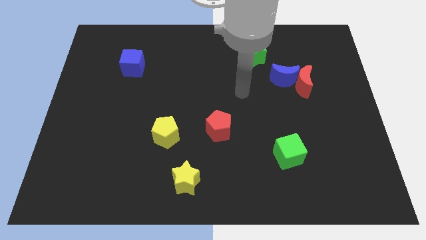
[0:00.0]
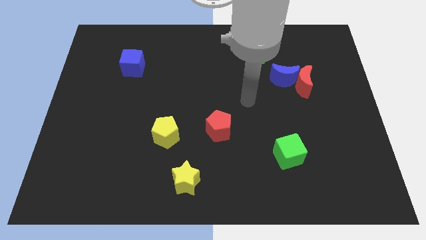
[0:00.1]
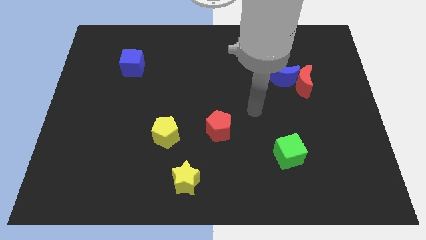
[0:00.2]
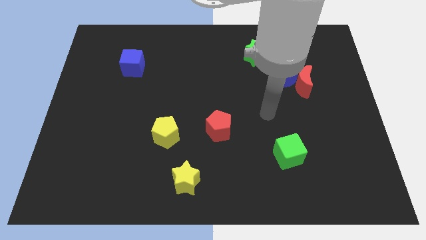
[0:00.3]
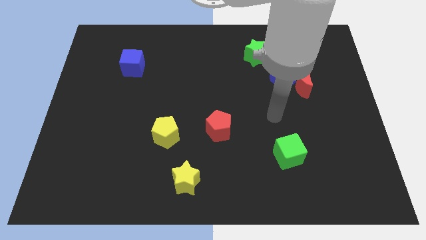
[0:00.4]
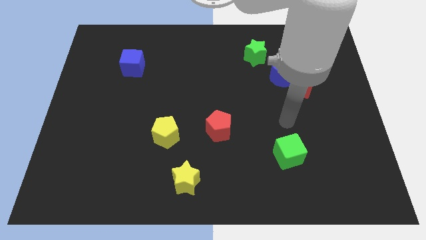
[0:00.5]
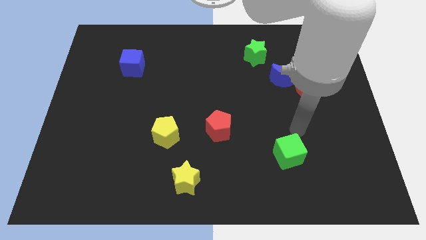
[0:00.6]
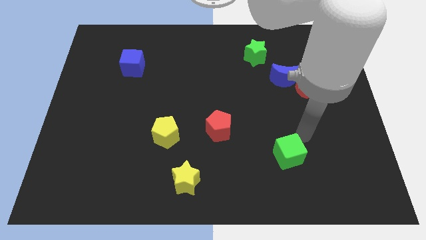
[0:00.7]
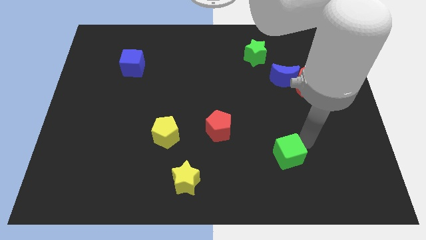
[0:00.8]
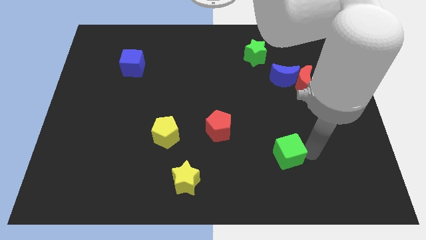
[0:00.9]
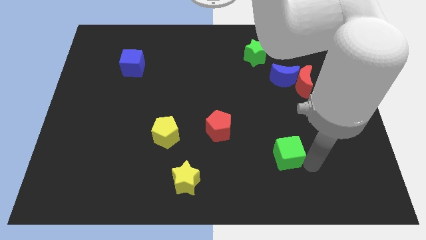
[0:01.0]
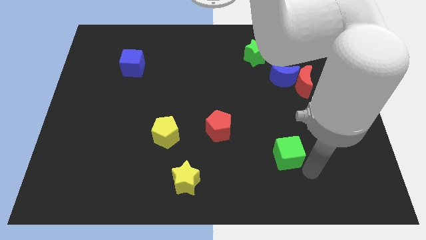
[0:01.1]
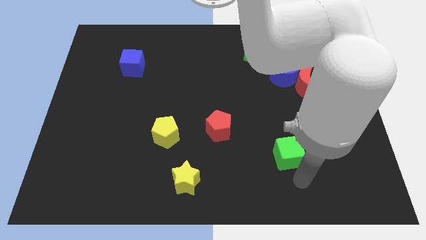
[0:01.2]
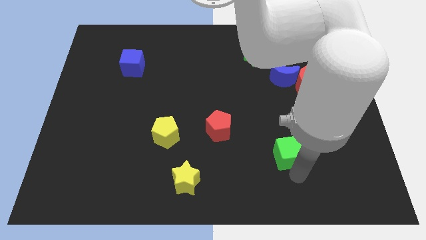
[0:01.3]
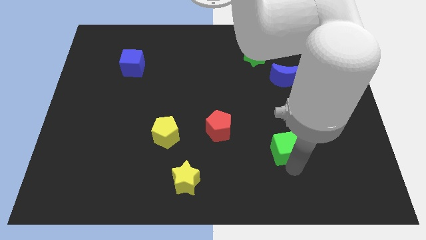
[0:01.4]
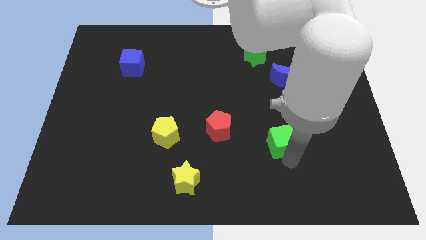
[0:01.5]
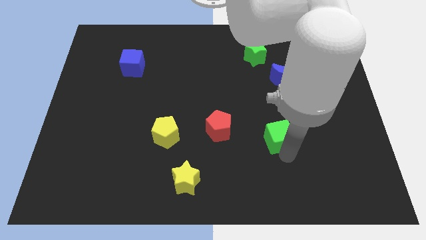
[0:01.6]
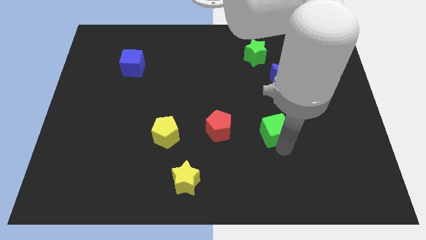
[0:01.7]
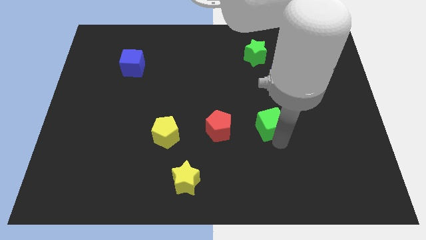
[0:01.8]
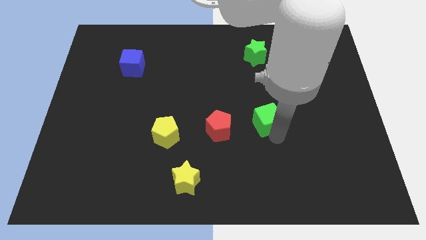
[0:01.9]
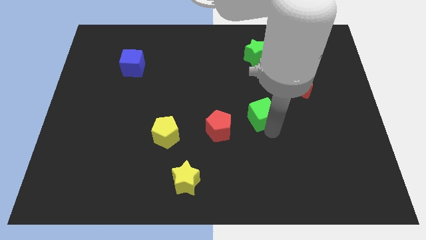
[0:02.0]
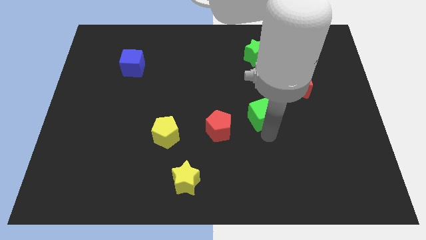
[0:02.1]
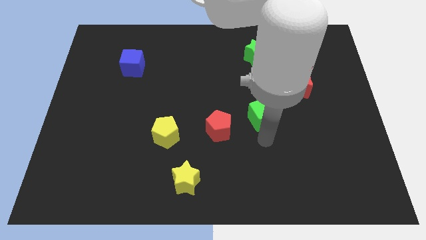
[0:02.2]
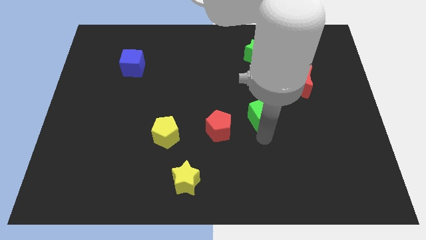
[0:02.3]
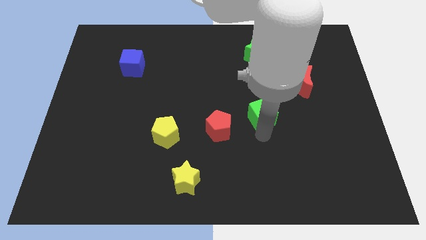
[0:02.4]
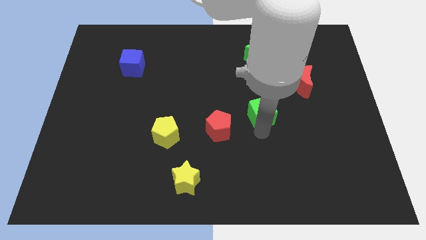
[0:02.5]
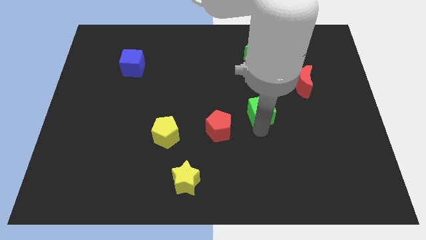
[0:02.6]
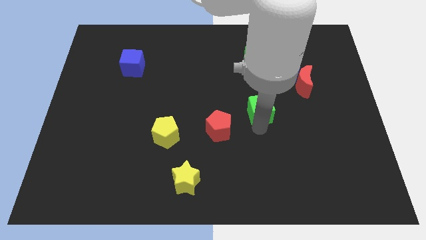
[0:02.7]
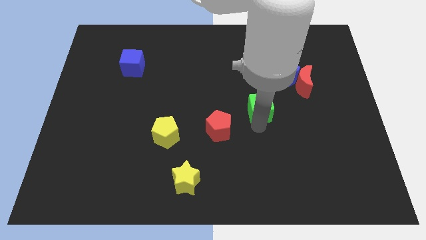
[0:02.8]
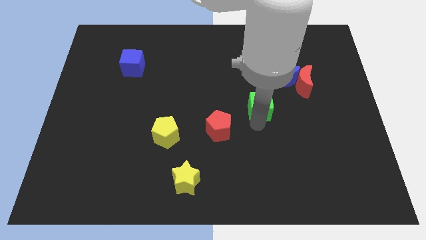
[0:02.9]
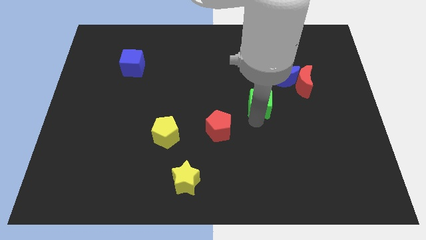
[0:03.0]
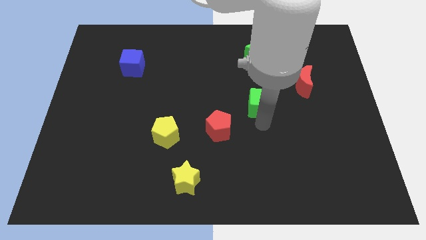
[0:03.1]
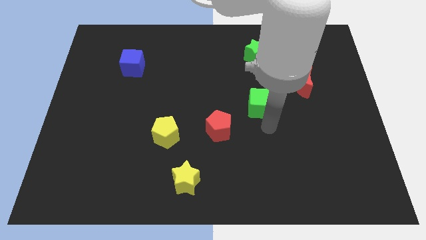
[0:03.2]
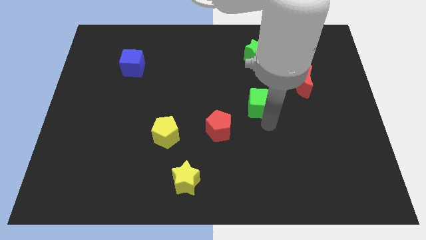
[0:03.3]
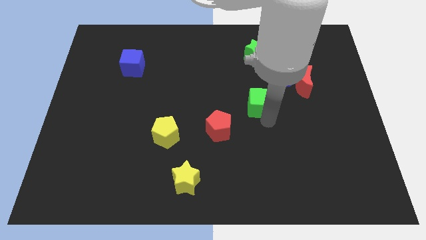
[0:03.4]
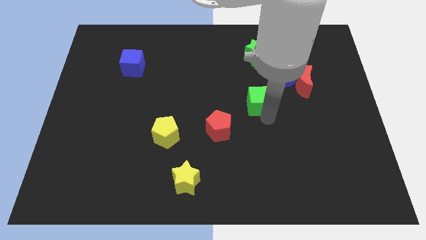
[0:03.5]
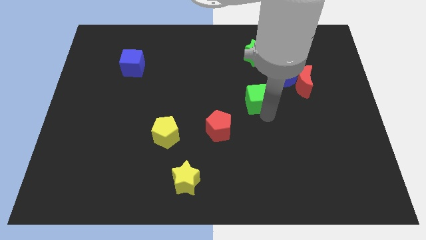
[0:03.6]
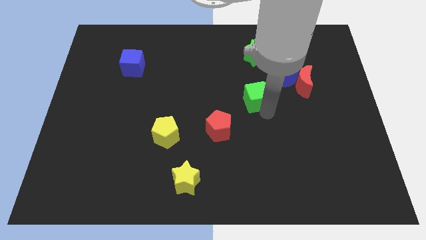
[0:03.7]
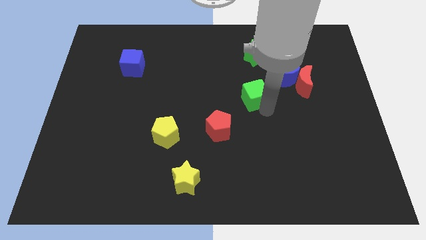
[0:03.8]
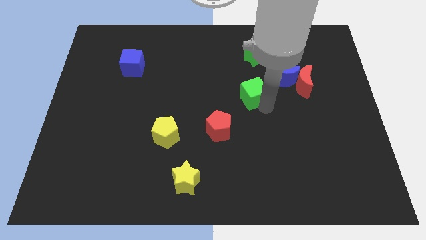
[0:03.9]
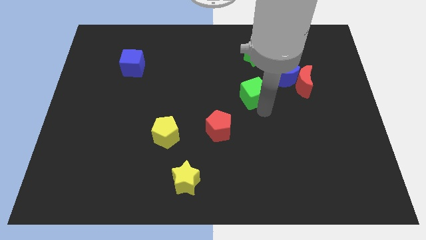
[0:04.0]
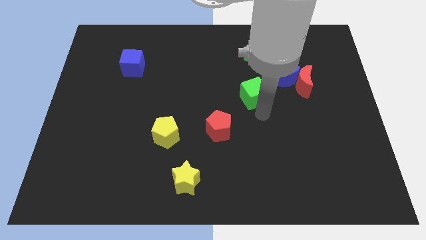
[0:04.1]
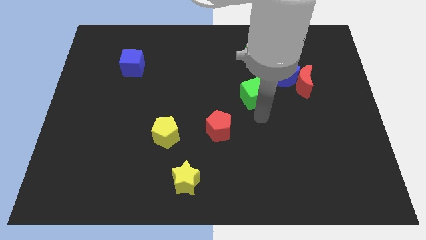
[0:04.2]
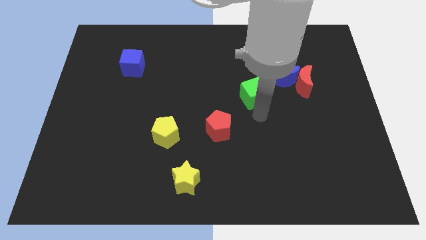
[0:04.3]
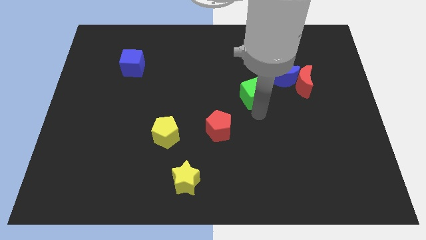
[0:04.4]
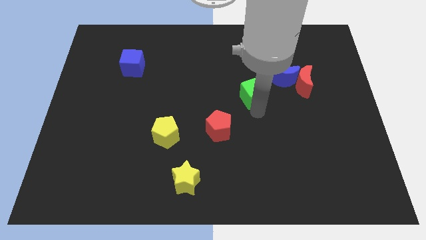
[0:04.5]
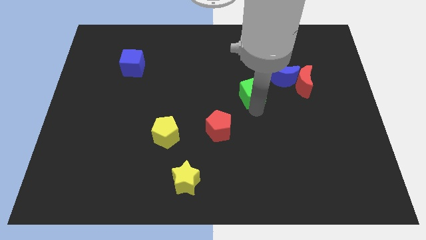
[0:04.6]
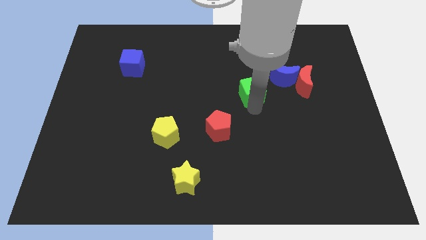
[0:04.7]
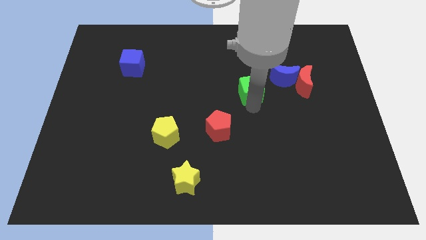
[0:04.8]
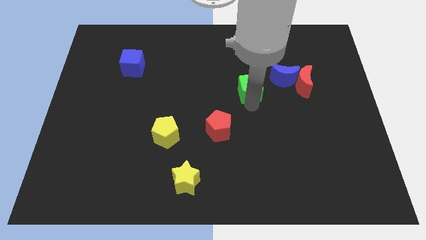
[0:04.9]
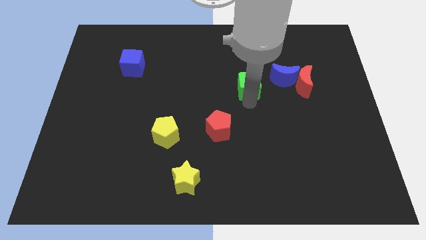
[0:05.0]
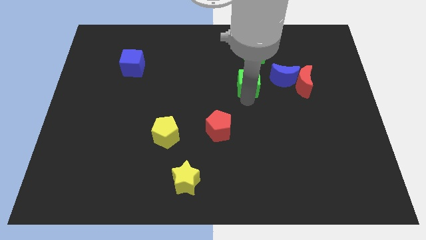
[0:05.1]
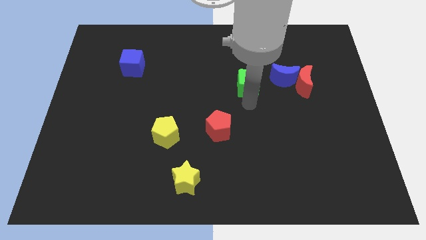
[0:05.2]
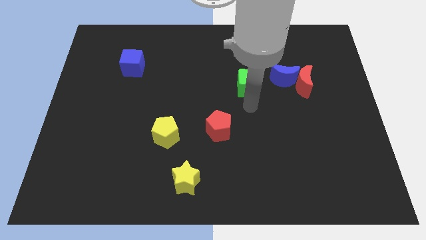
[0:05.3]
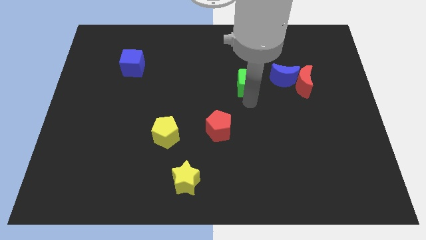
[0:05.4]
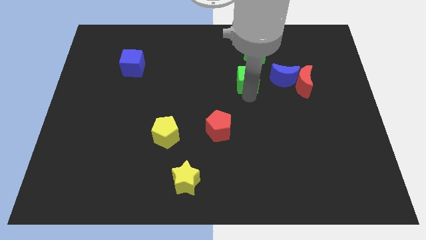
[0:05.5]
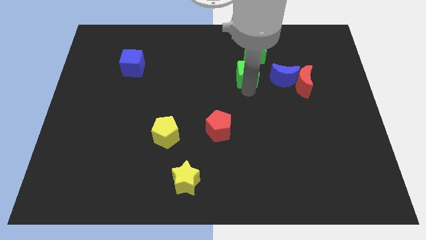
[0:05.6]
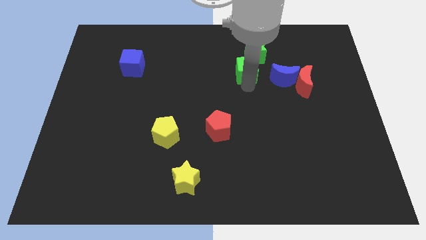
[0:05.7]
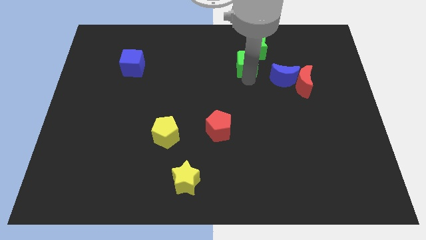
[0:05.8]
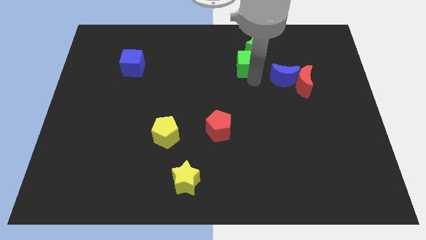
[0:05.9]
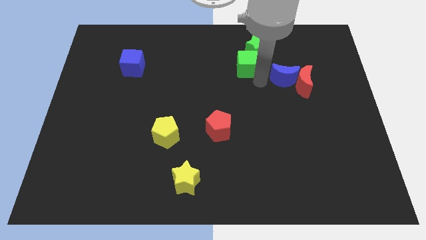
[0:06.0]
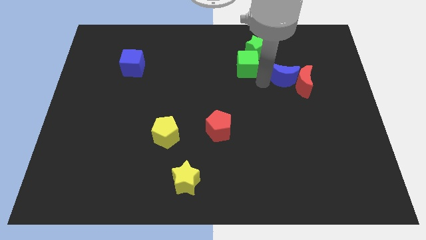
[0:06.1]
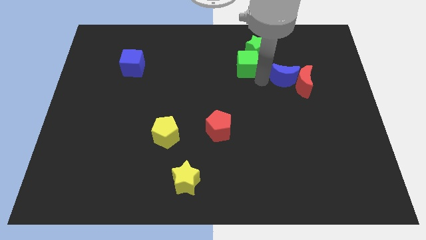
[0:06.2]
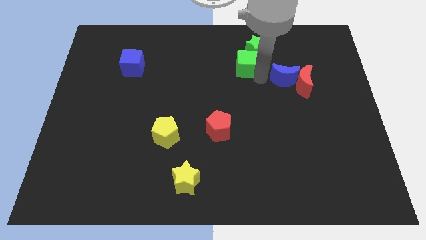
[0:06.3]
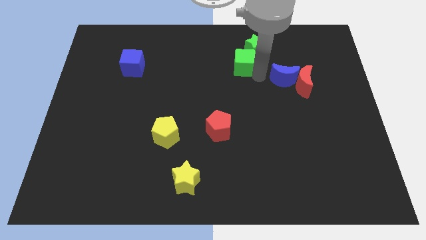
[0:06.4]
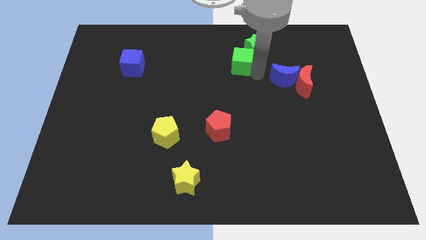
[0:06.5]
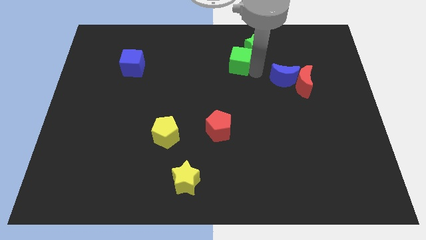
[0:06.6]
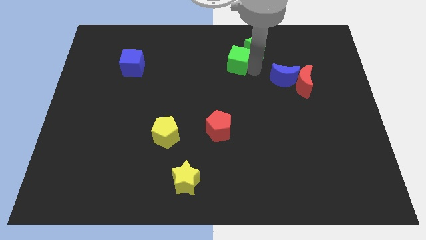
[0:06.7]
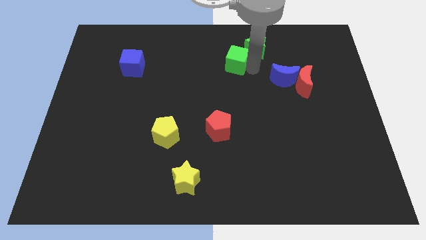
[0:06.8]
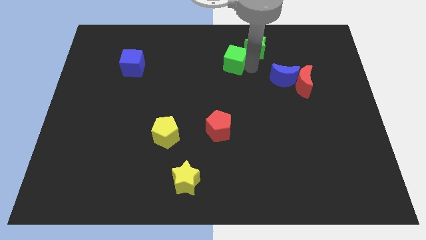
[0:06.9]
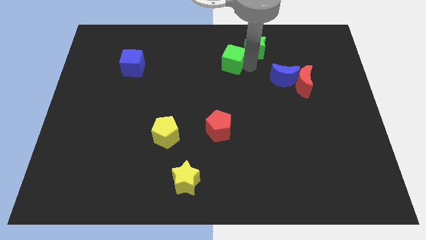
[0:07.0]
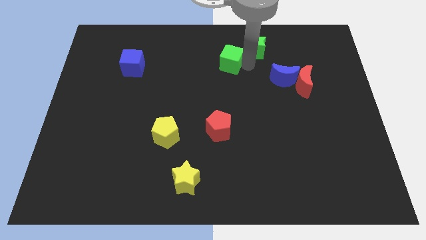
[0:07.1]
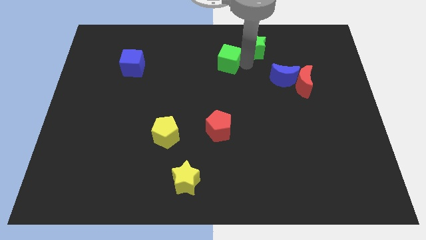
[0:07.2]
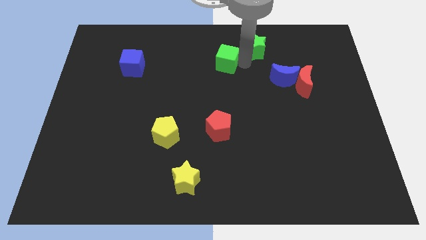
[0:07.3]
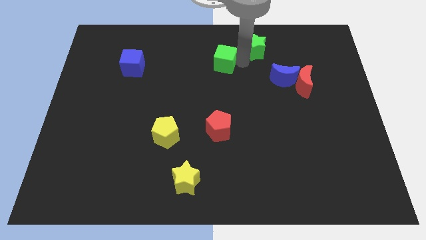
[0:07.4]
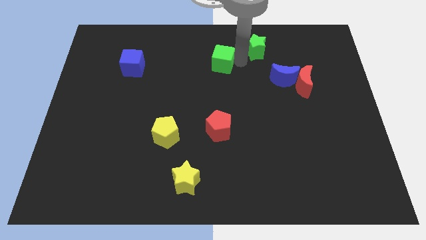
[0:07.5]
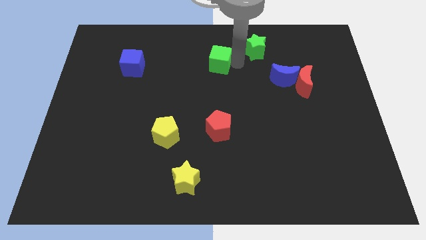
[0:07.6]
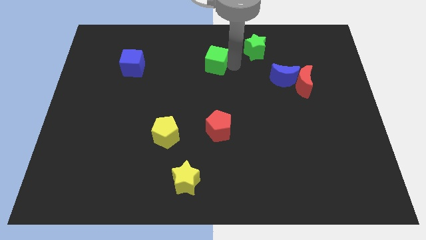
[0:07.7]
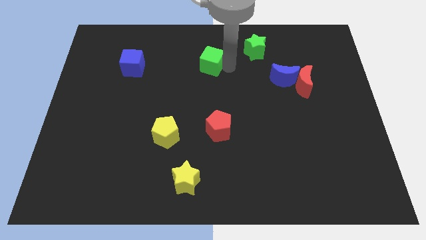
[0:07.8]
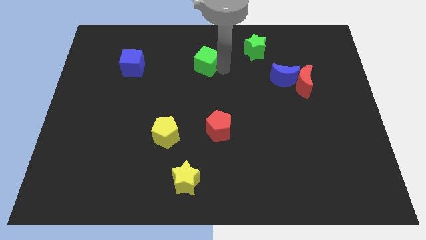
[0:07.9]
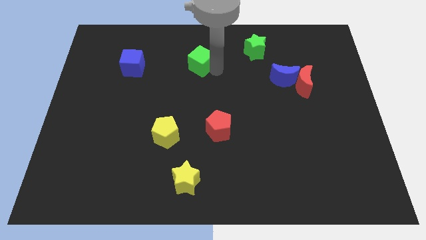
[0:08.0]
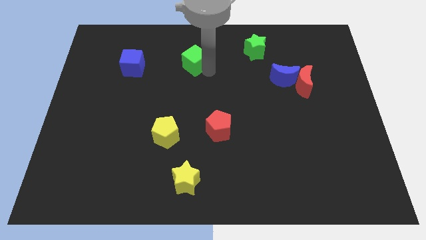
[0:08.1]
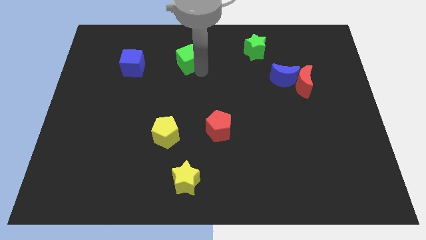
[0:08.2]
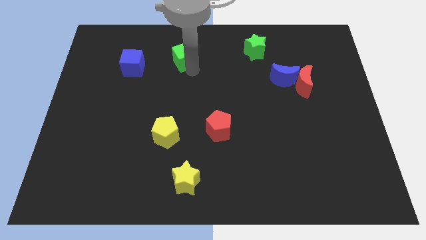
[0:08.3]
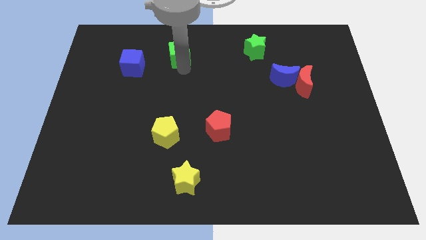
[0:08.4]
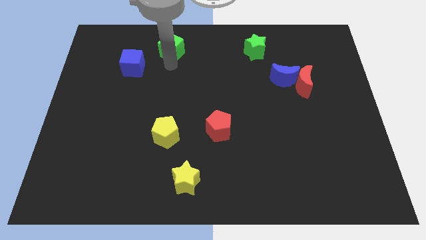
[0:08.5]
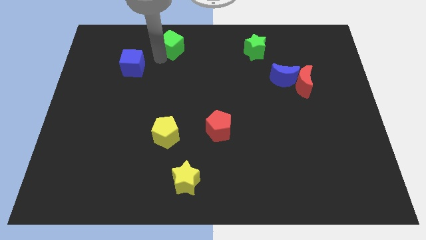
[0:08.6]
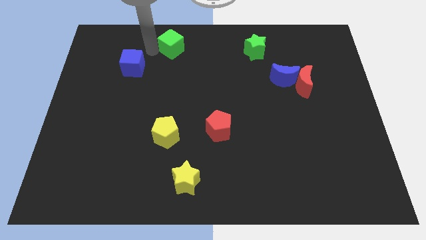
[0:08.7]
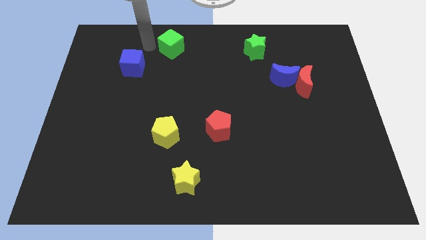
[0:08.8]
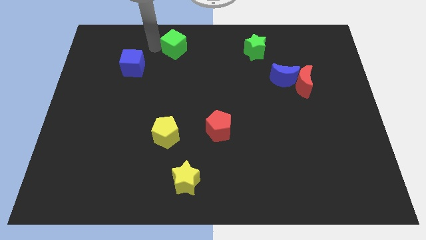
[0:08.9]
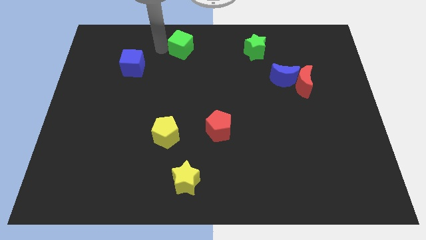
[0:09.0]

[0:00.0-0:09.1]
put the green cube to the towards your base
